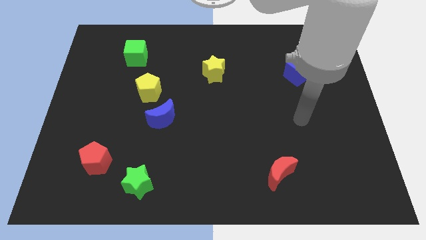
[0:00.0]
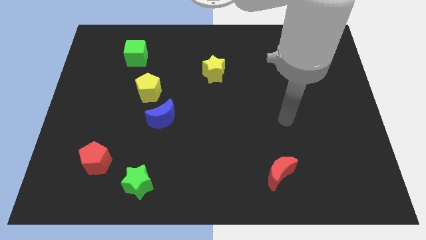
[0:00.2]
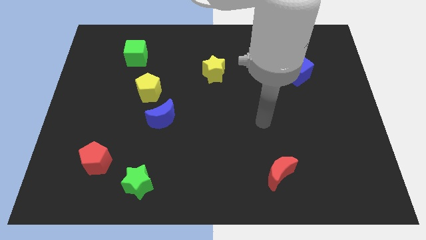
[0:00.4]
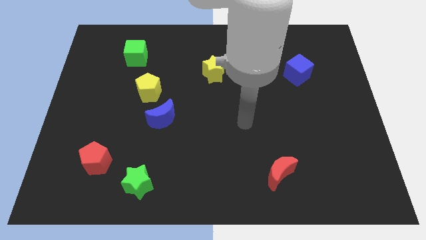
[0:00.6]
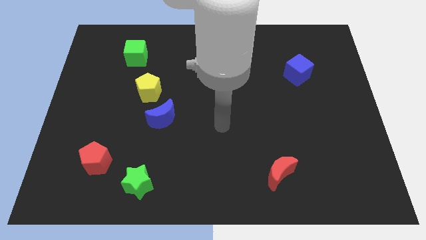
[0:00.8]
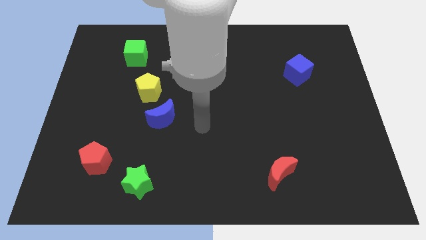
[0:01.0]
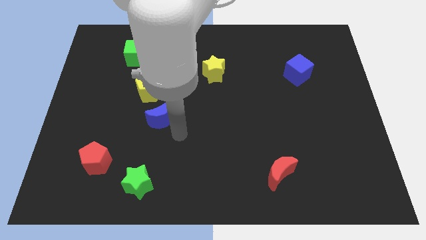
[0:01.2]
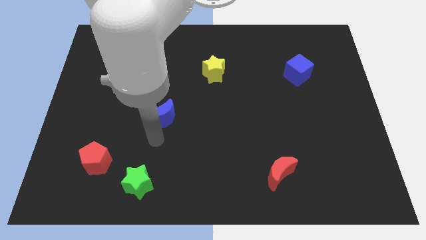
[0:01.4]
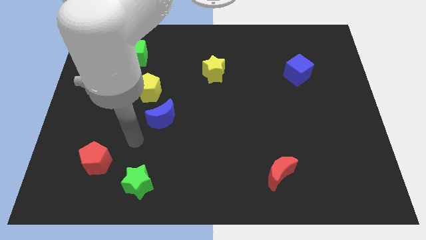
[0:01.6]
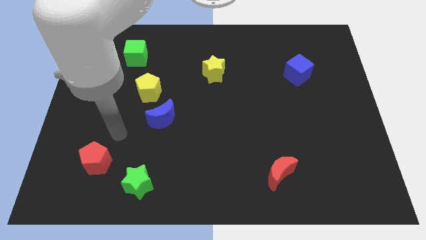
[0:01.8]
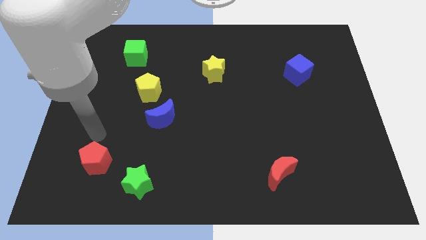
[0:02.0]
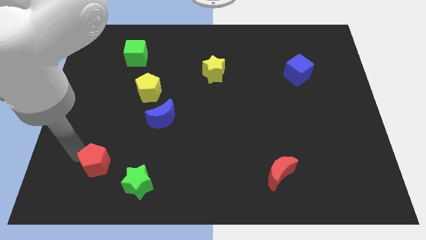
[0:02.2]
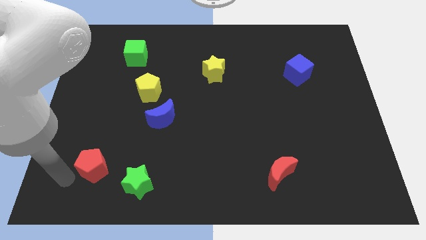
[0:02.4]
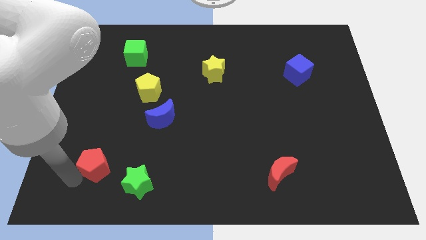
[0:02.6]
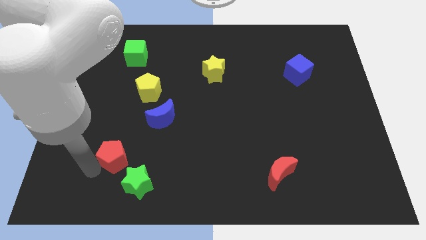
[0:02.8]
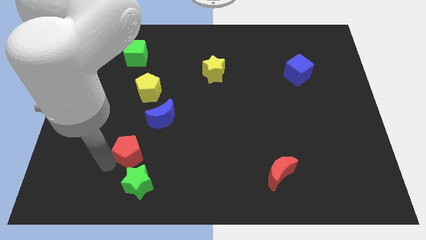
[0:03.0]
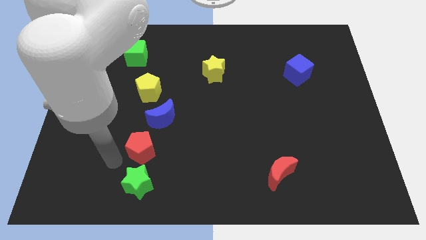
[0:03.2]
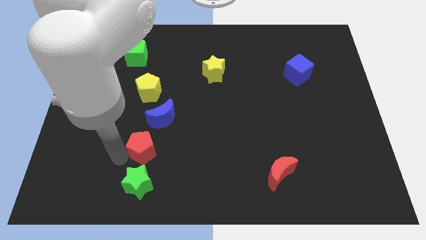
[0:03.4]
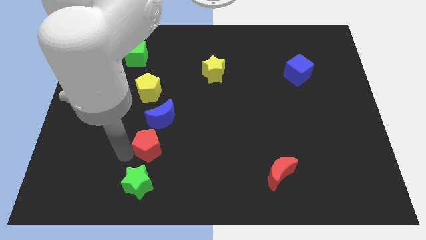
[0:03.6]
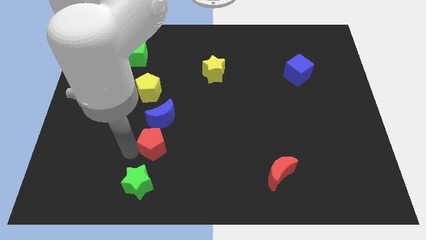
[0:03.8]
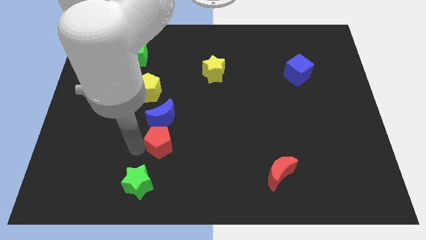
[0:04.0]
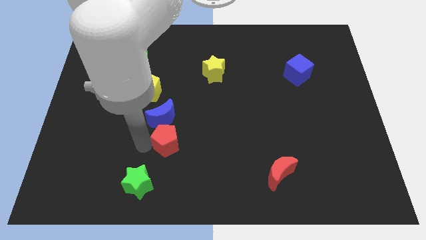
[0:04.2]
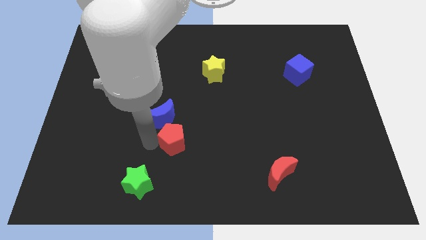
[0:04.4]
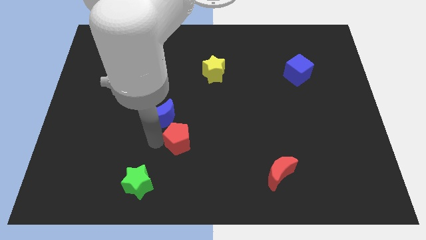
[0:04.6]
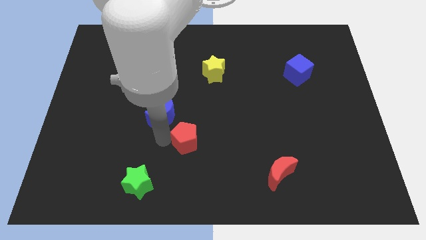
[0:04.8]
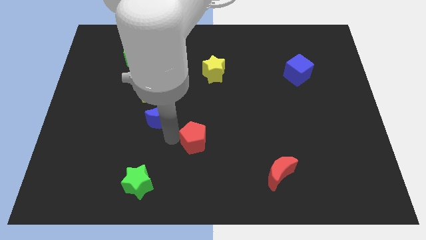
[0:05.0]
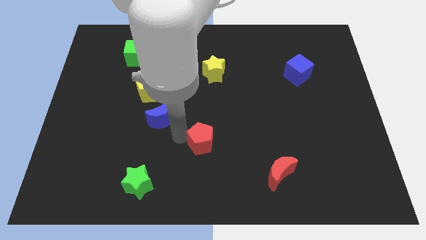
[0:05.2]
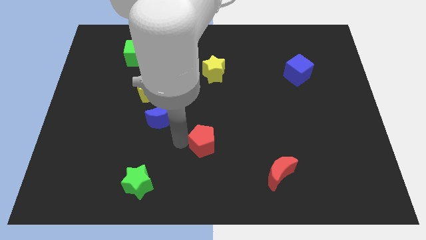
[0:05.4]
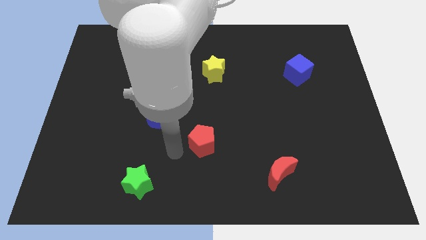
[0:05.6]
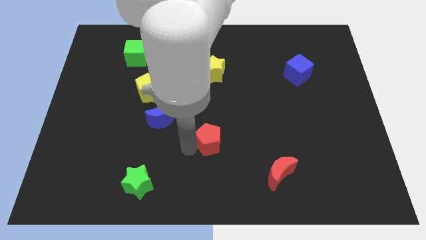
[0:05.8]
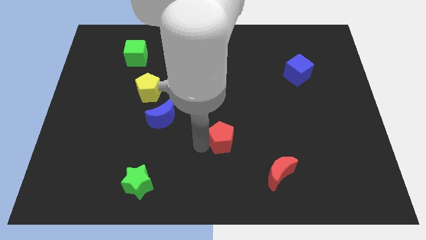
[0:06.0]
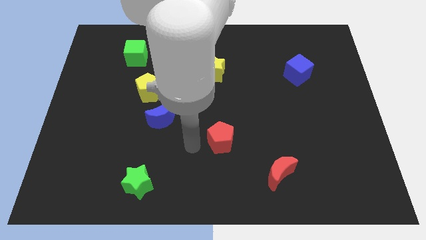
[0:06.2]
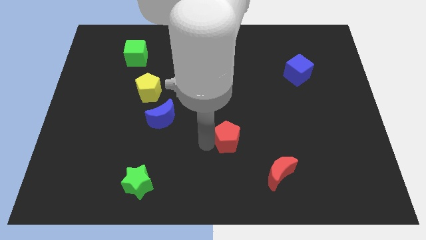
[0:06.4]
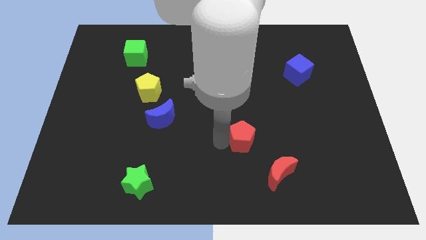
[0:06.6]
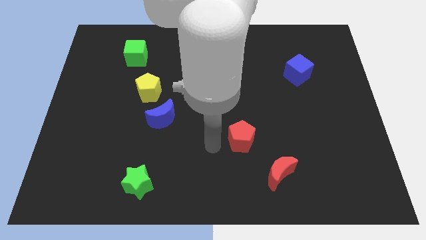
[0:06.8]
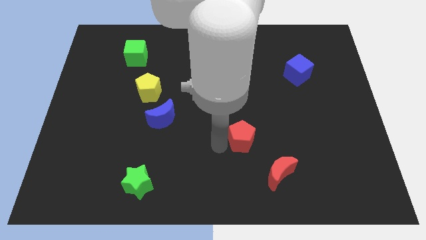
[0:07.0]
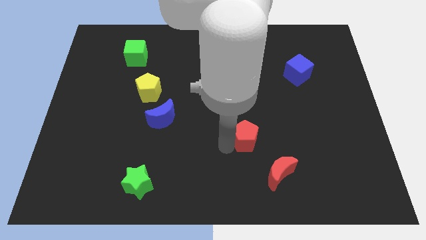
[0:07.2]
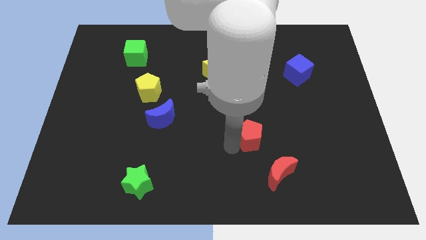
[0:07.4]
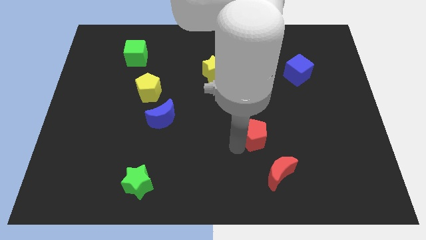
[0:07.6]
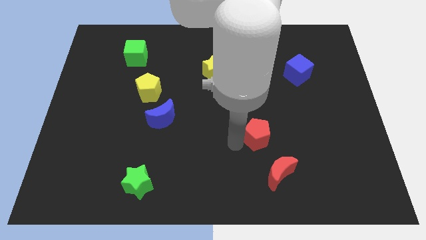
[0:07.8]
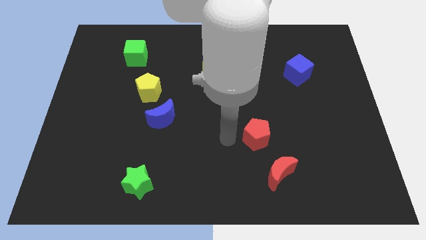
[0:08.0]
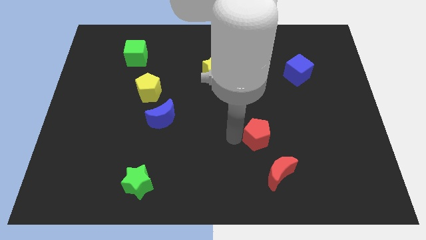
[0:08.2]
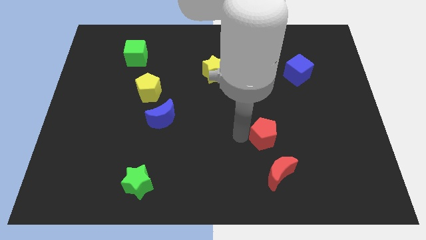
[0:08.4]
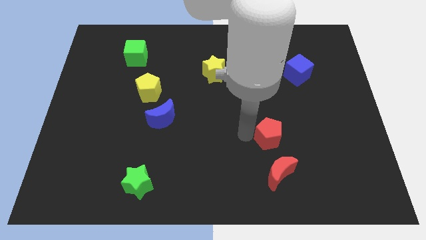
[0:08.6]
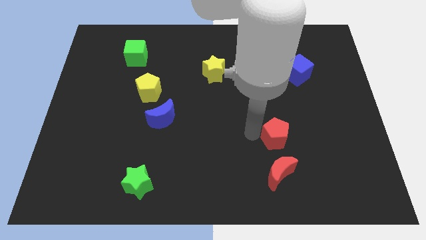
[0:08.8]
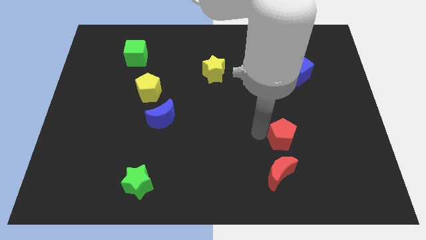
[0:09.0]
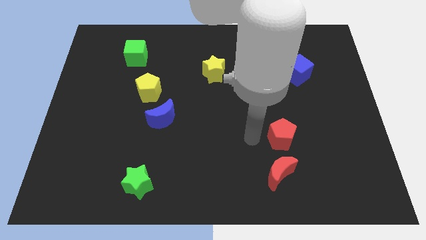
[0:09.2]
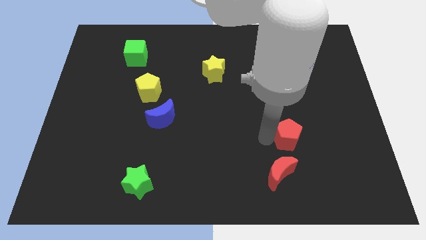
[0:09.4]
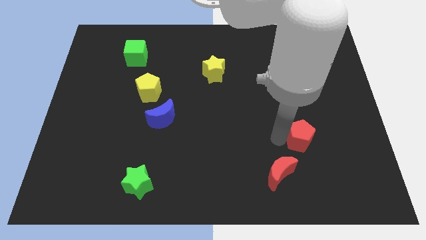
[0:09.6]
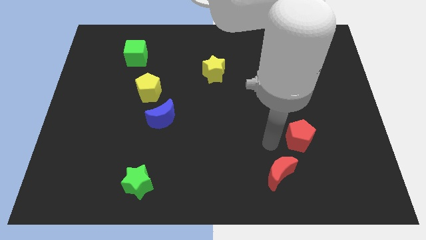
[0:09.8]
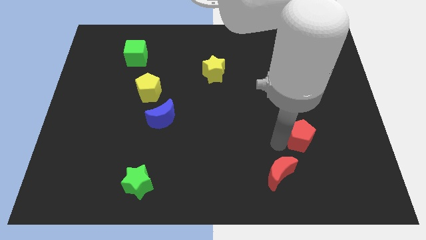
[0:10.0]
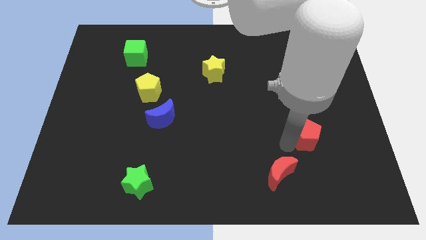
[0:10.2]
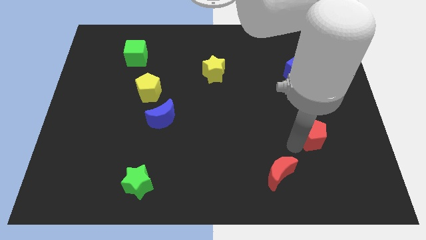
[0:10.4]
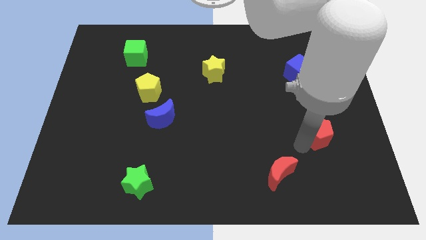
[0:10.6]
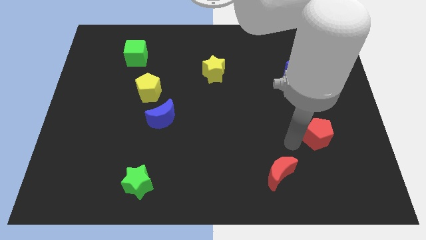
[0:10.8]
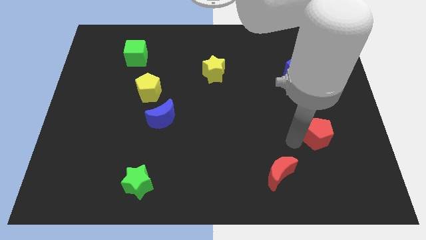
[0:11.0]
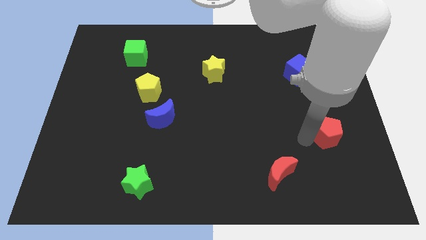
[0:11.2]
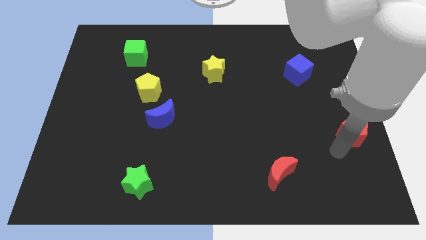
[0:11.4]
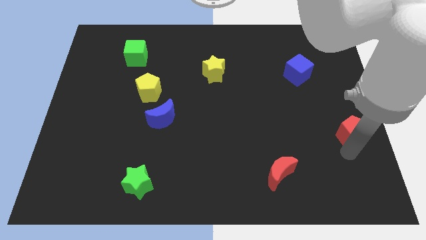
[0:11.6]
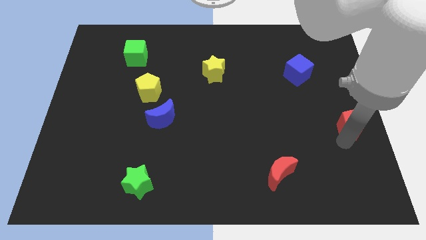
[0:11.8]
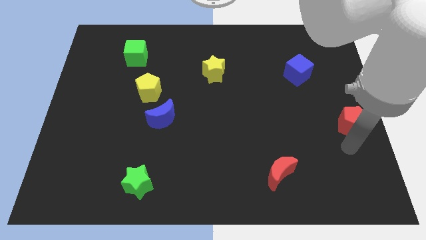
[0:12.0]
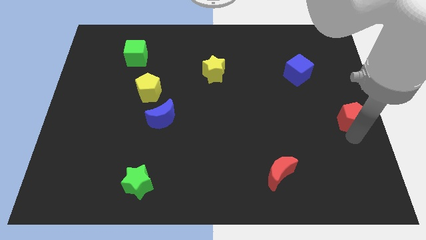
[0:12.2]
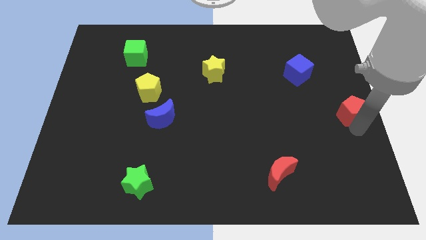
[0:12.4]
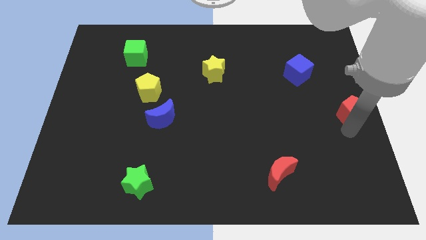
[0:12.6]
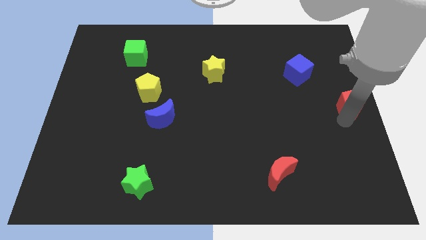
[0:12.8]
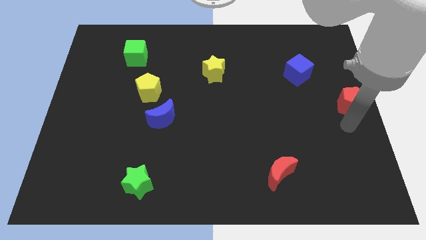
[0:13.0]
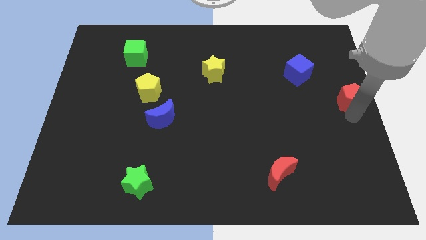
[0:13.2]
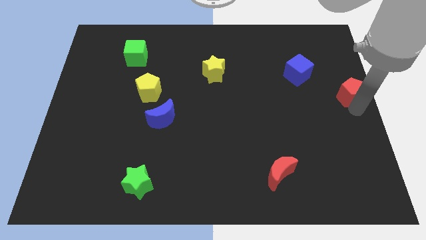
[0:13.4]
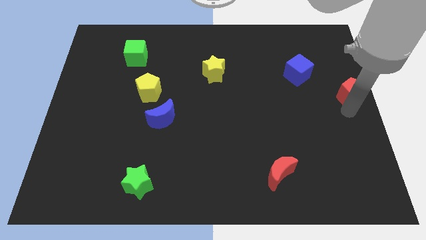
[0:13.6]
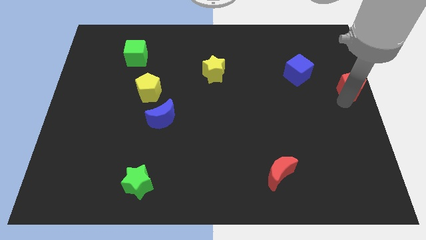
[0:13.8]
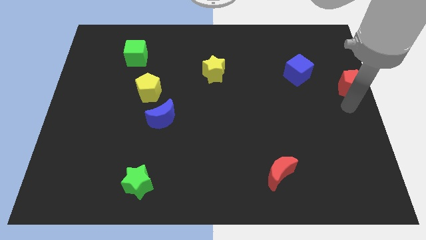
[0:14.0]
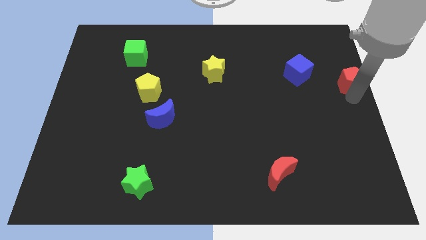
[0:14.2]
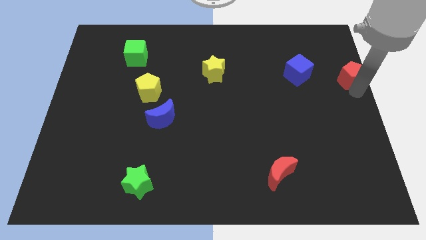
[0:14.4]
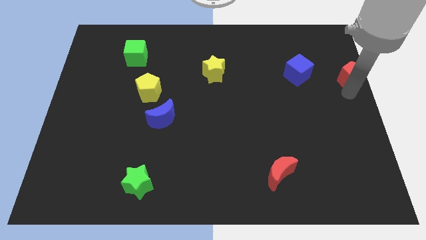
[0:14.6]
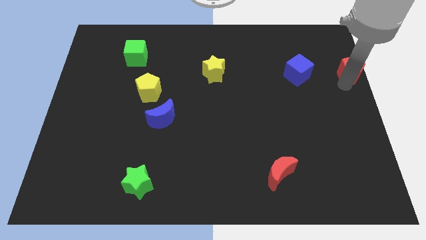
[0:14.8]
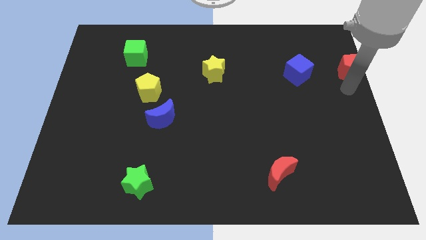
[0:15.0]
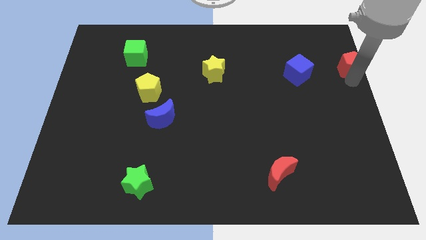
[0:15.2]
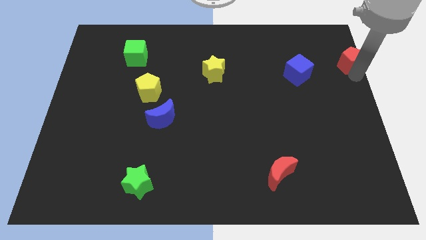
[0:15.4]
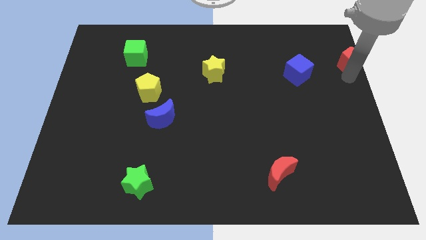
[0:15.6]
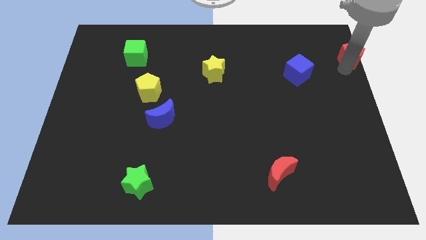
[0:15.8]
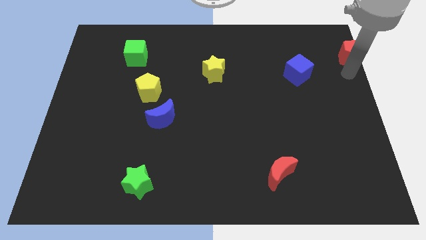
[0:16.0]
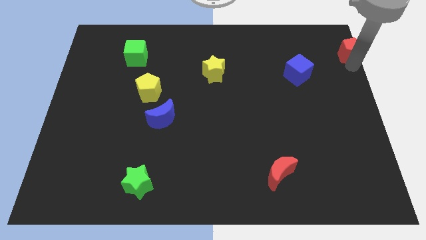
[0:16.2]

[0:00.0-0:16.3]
put the red pentagon to the top right of the board
